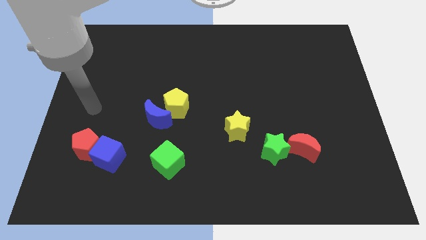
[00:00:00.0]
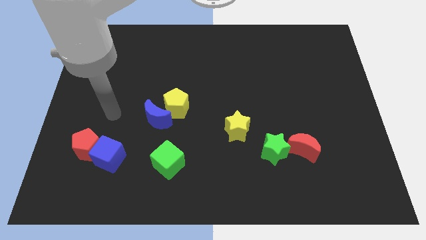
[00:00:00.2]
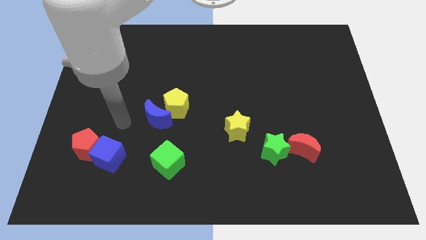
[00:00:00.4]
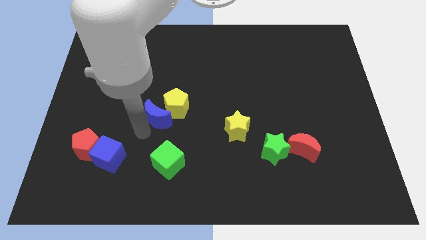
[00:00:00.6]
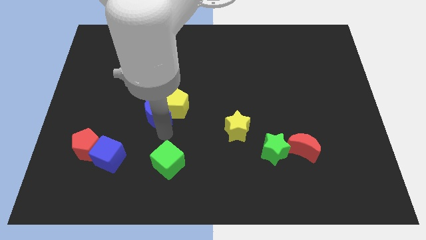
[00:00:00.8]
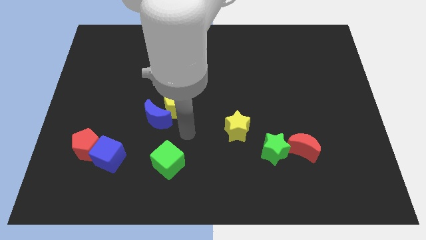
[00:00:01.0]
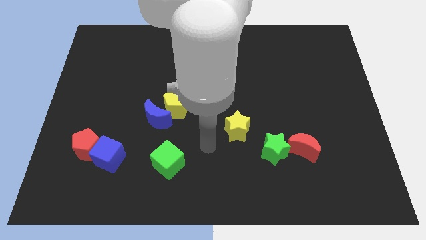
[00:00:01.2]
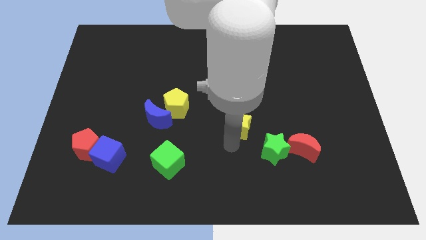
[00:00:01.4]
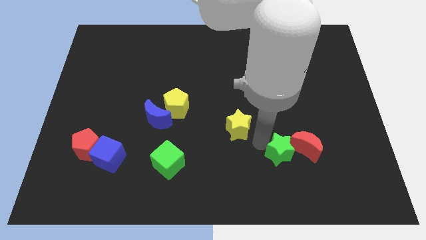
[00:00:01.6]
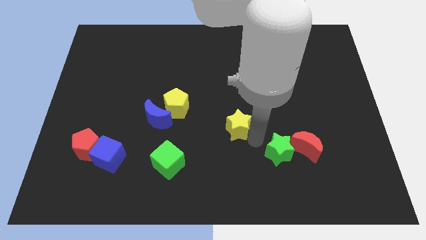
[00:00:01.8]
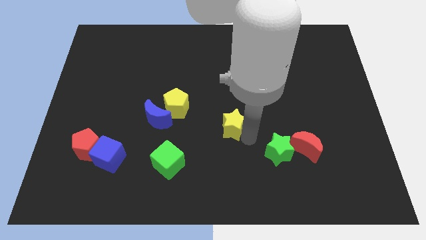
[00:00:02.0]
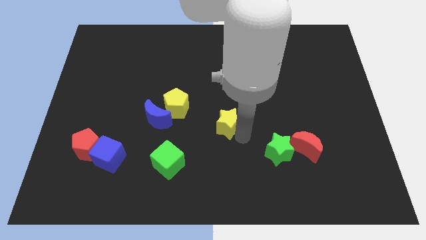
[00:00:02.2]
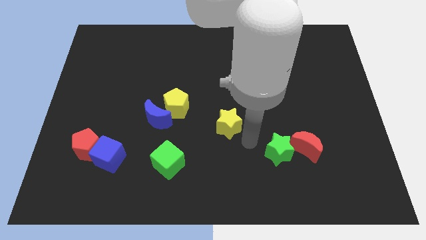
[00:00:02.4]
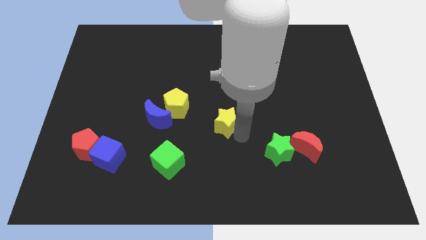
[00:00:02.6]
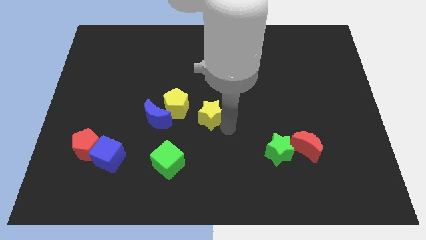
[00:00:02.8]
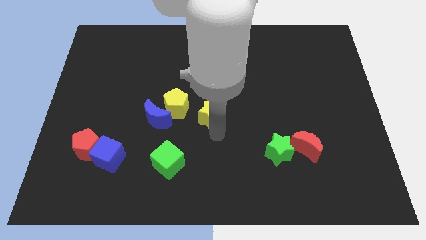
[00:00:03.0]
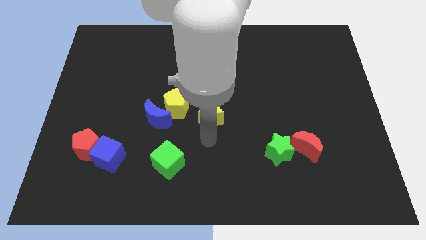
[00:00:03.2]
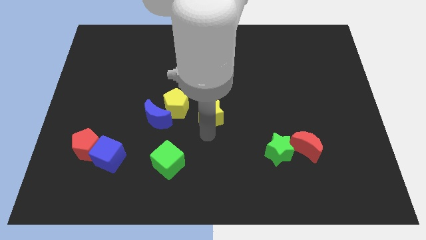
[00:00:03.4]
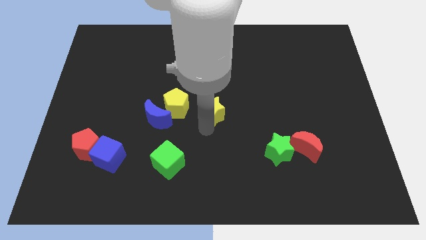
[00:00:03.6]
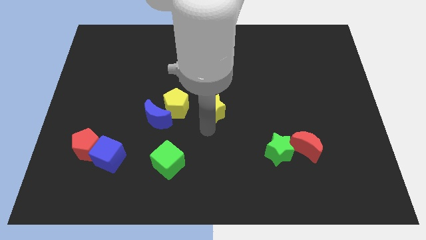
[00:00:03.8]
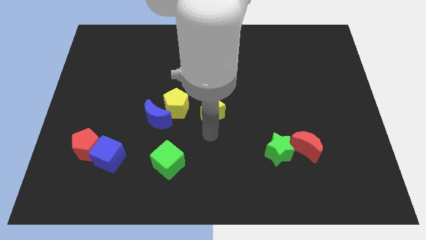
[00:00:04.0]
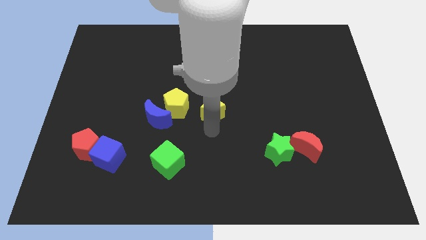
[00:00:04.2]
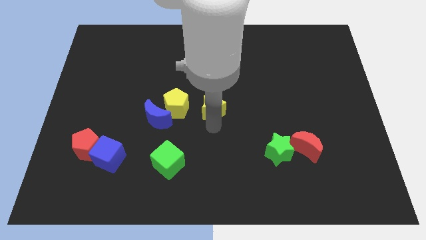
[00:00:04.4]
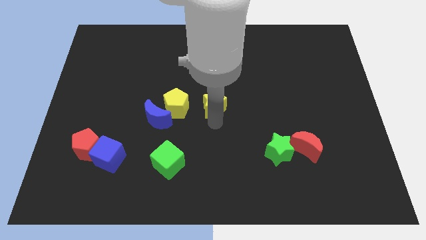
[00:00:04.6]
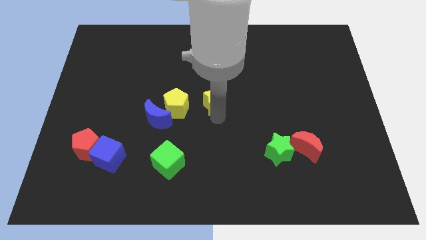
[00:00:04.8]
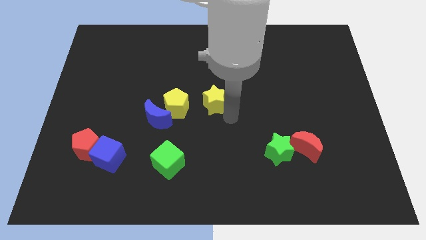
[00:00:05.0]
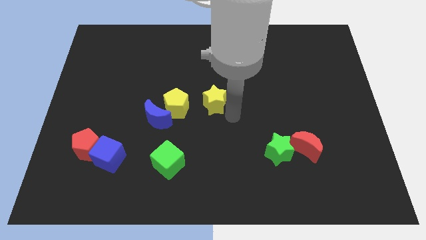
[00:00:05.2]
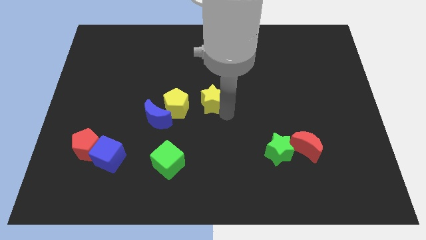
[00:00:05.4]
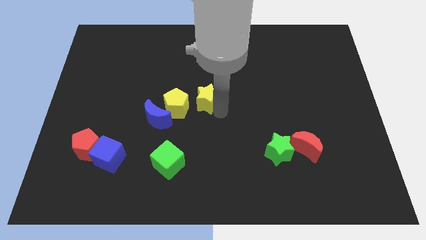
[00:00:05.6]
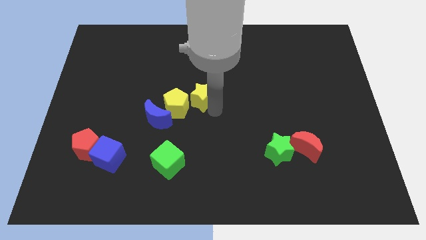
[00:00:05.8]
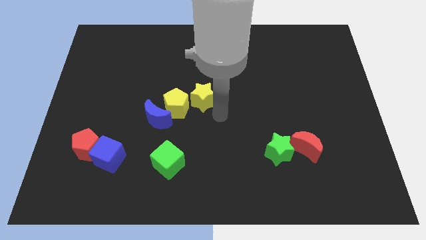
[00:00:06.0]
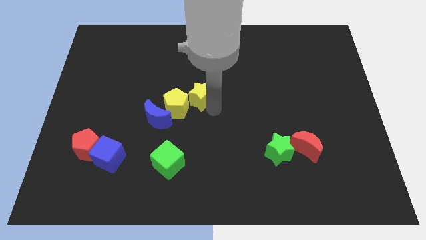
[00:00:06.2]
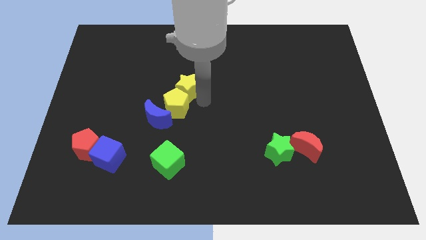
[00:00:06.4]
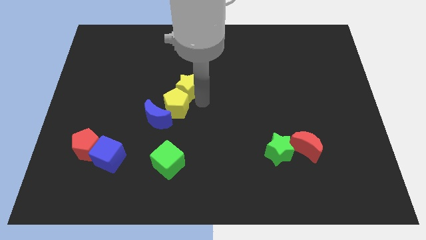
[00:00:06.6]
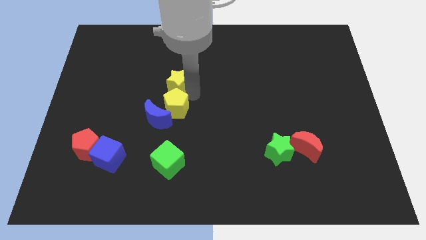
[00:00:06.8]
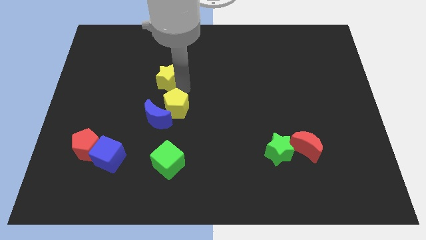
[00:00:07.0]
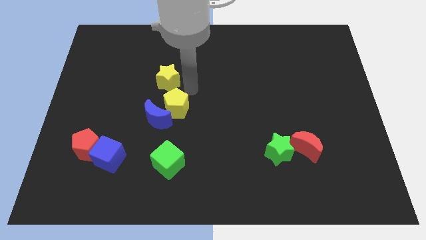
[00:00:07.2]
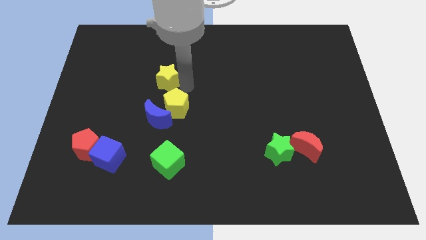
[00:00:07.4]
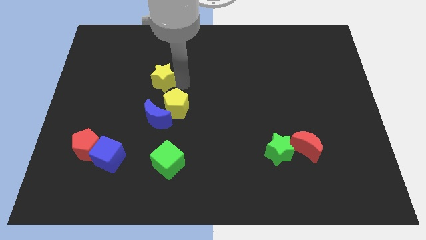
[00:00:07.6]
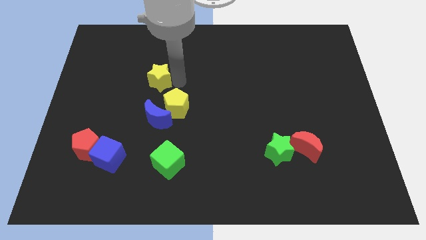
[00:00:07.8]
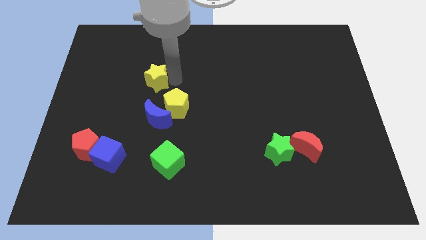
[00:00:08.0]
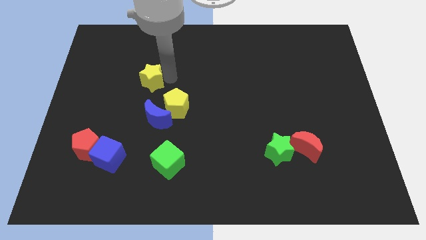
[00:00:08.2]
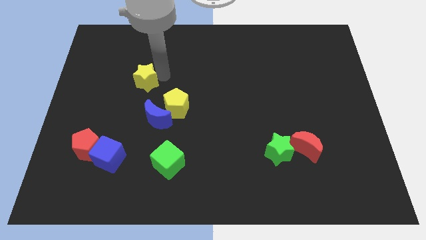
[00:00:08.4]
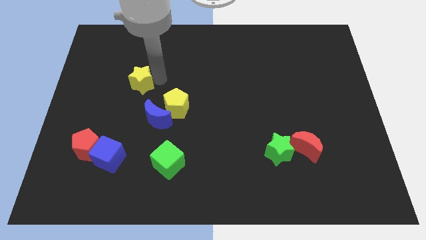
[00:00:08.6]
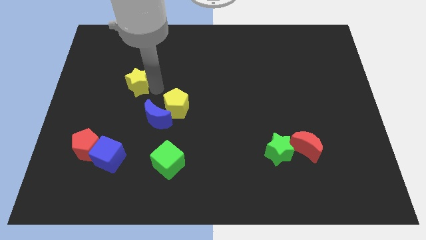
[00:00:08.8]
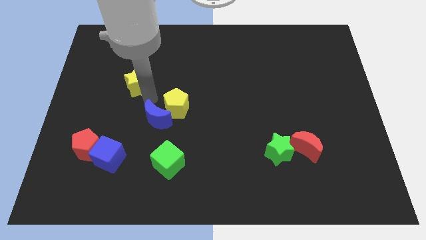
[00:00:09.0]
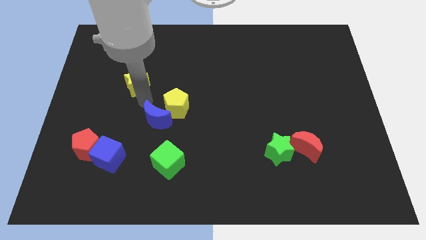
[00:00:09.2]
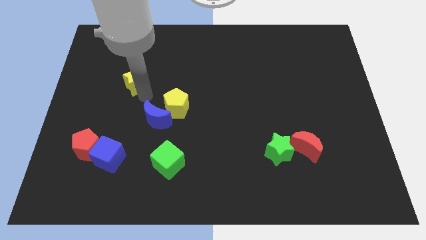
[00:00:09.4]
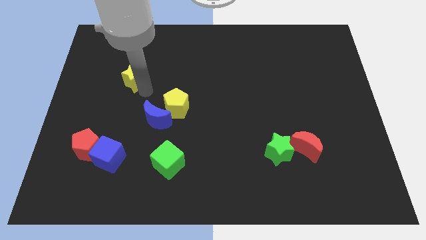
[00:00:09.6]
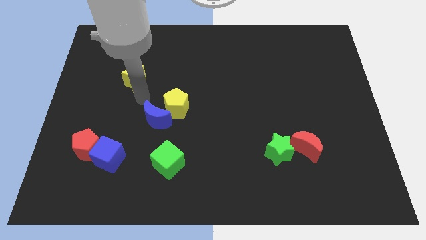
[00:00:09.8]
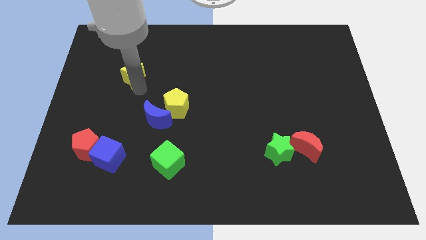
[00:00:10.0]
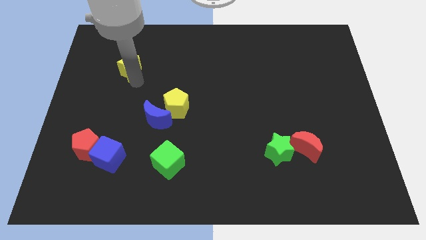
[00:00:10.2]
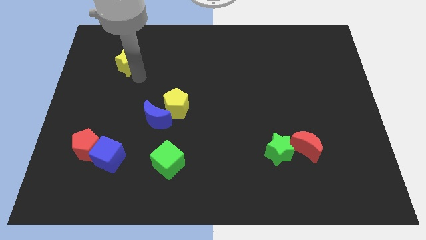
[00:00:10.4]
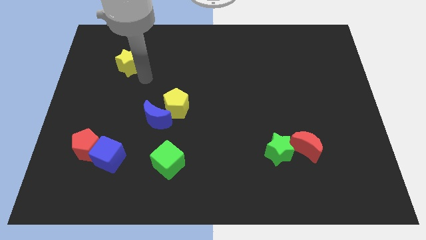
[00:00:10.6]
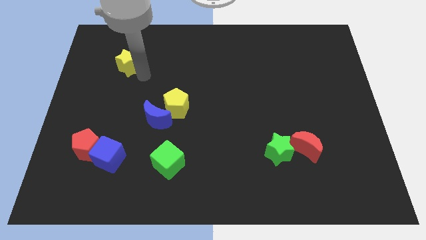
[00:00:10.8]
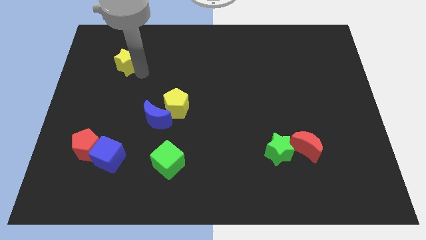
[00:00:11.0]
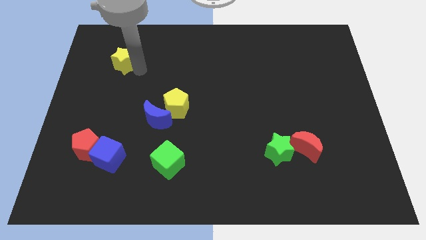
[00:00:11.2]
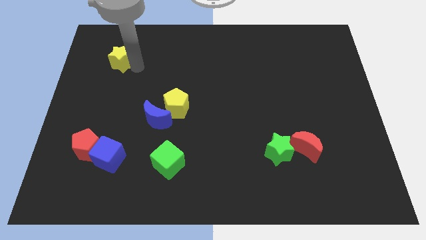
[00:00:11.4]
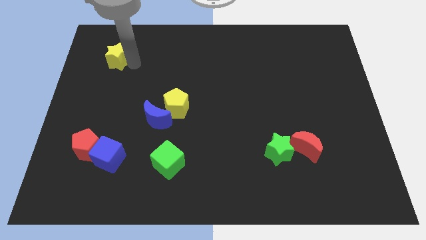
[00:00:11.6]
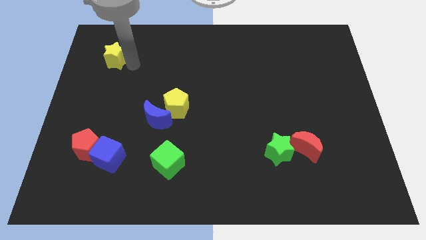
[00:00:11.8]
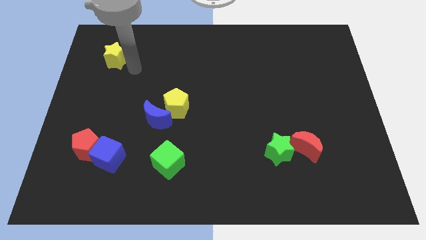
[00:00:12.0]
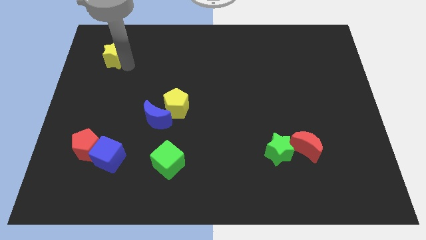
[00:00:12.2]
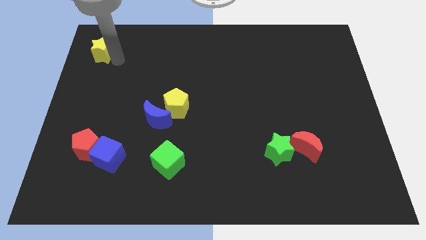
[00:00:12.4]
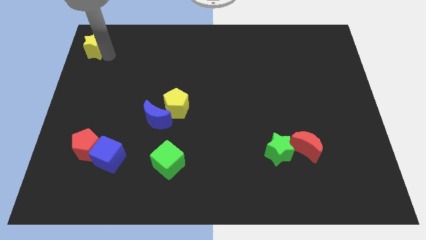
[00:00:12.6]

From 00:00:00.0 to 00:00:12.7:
put the yellow star to the top left corner
